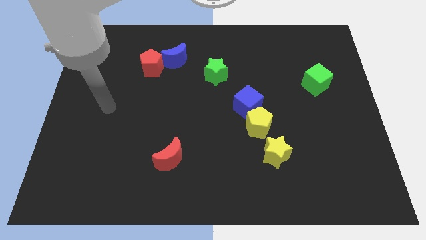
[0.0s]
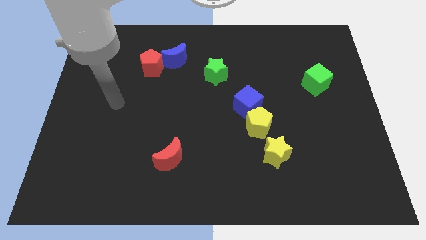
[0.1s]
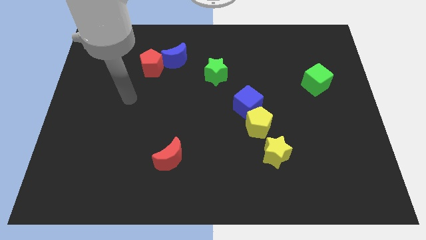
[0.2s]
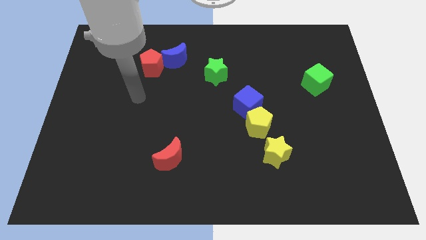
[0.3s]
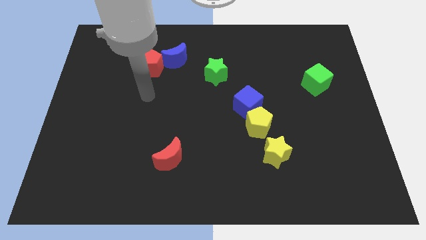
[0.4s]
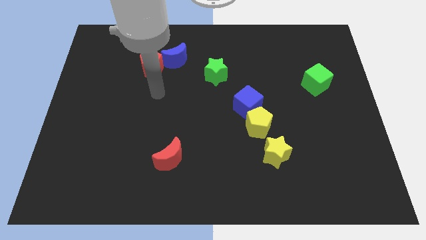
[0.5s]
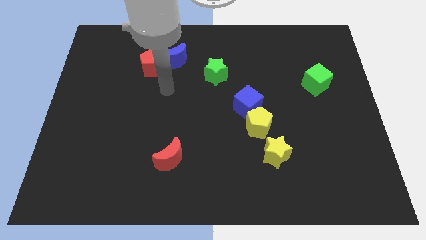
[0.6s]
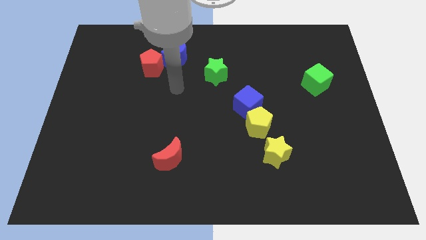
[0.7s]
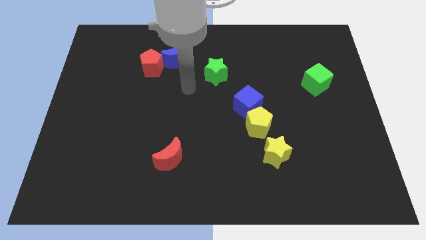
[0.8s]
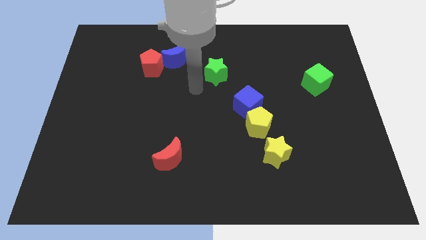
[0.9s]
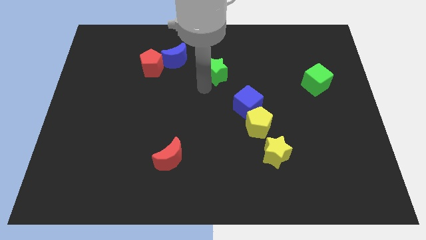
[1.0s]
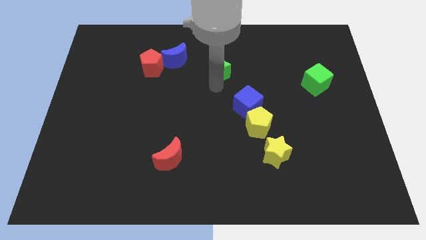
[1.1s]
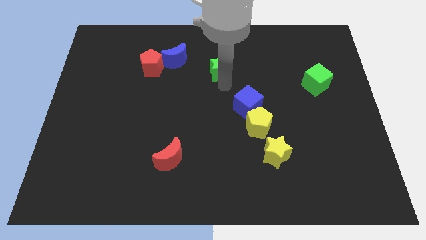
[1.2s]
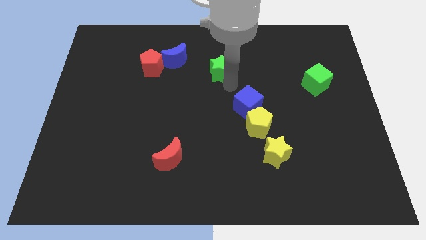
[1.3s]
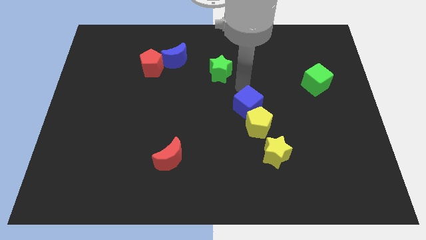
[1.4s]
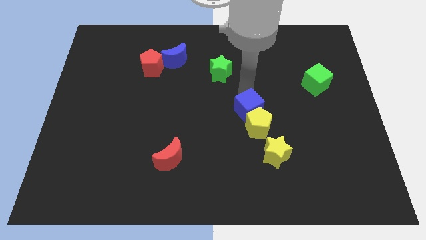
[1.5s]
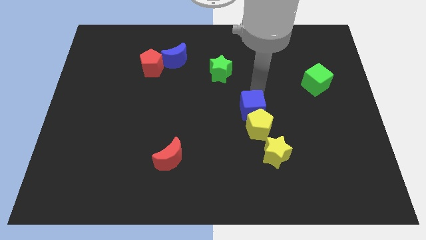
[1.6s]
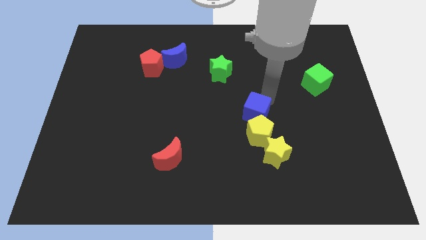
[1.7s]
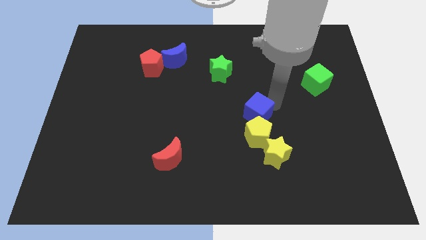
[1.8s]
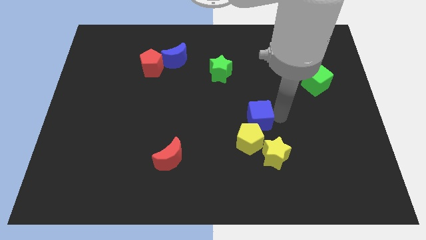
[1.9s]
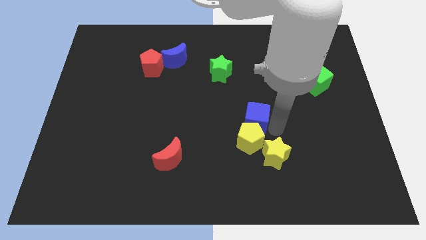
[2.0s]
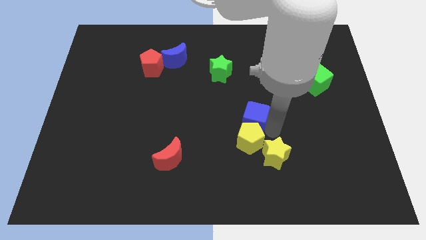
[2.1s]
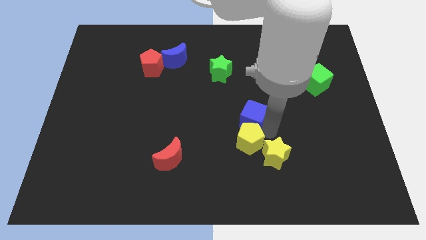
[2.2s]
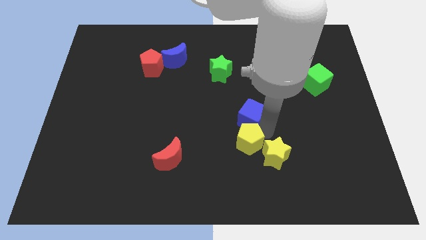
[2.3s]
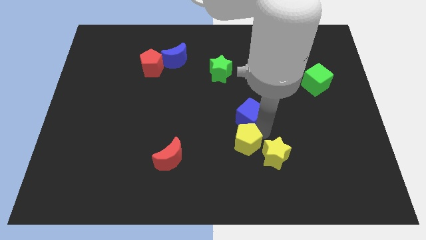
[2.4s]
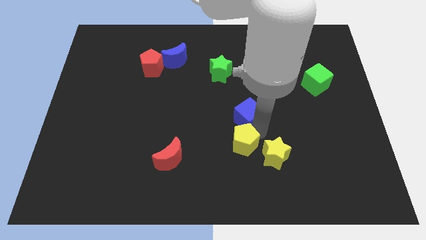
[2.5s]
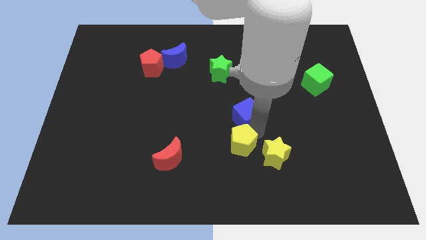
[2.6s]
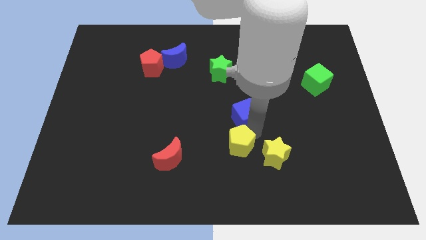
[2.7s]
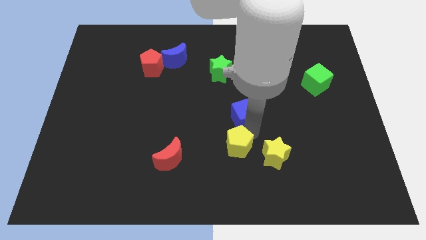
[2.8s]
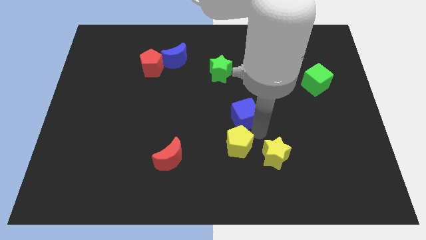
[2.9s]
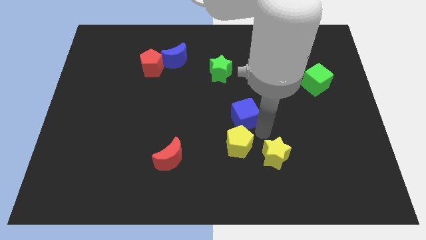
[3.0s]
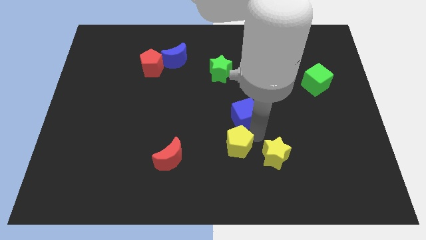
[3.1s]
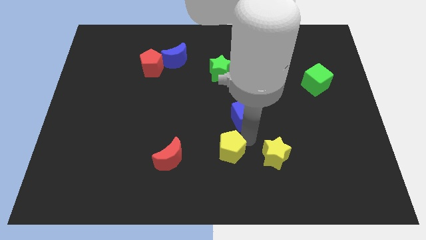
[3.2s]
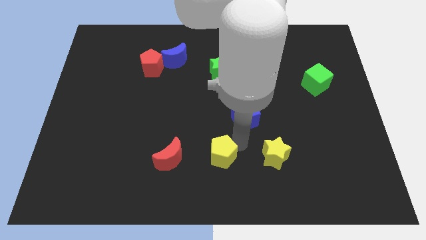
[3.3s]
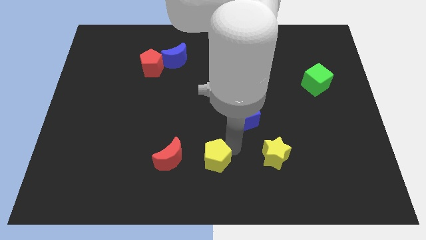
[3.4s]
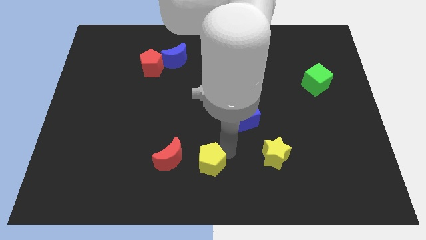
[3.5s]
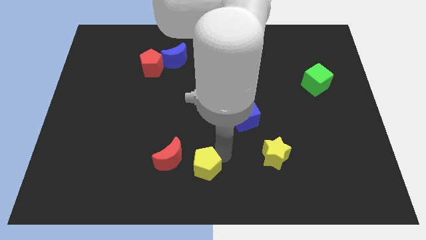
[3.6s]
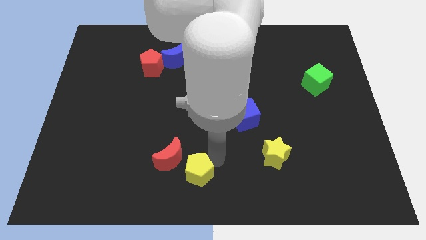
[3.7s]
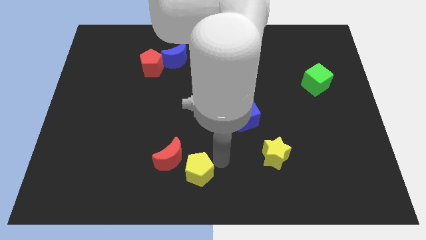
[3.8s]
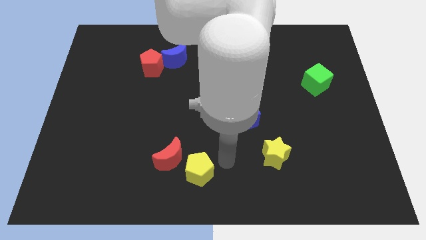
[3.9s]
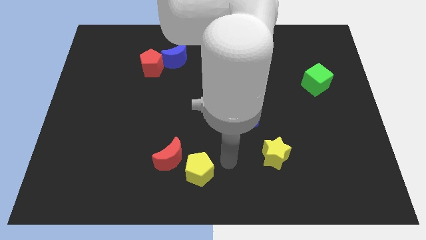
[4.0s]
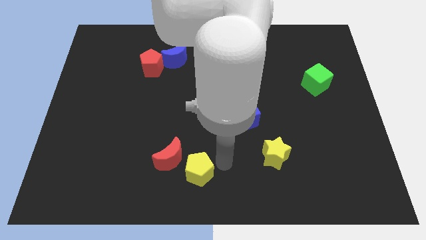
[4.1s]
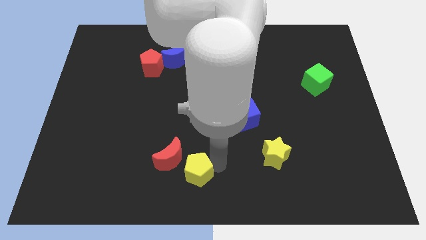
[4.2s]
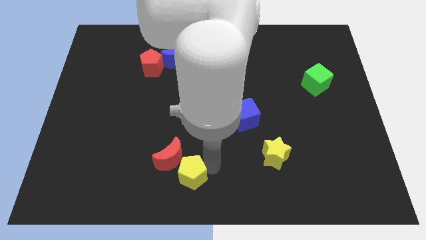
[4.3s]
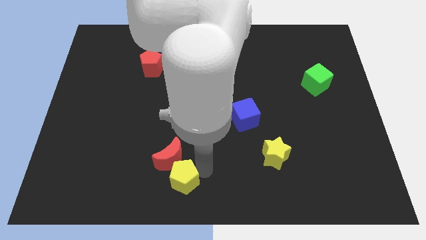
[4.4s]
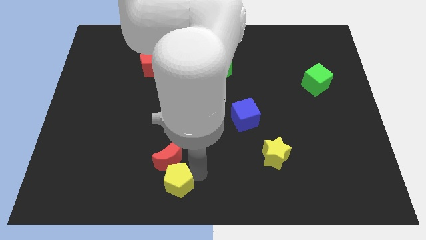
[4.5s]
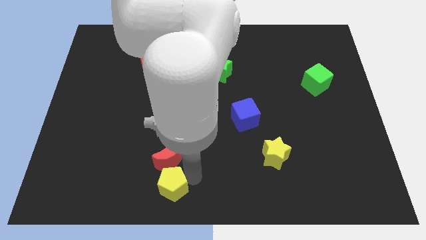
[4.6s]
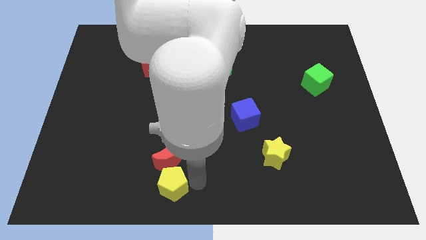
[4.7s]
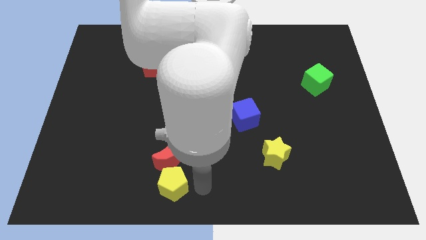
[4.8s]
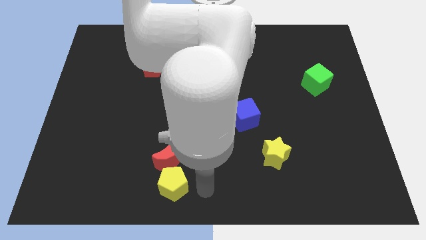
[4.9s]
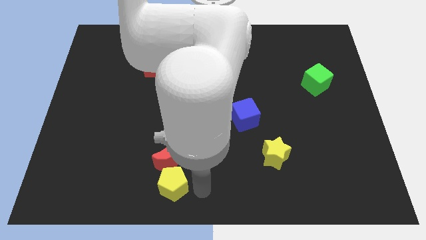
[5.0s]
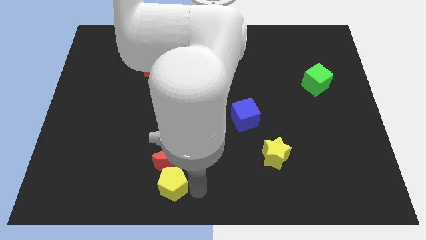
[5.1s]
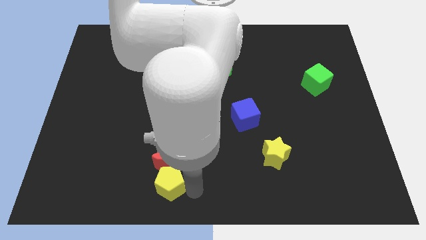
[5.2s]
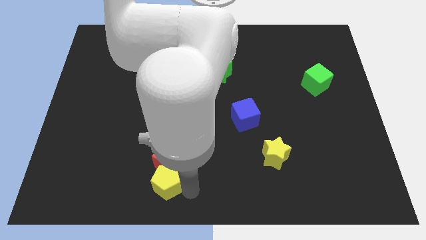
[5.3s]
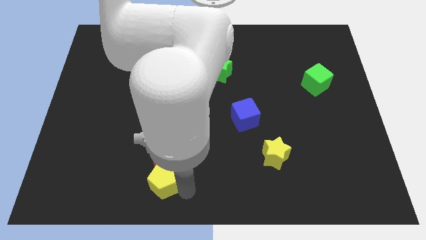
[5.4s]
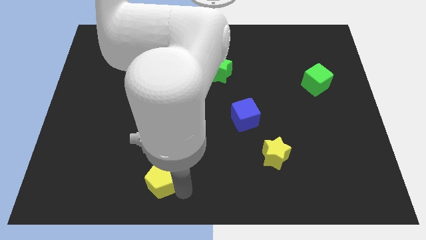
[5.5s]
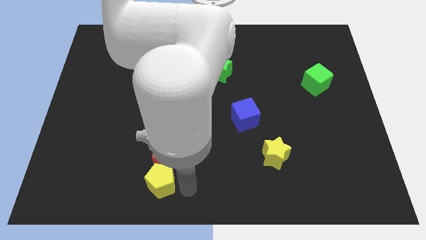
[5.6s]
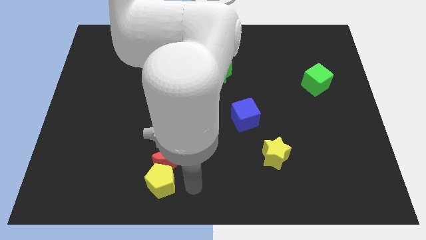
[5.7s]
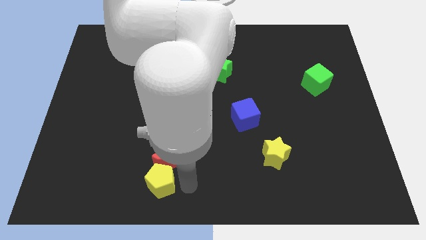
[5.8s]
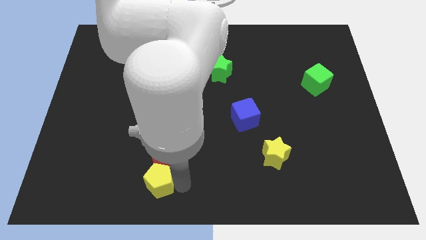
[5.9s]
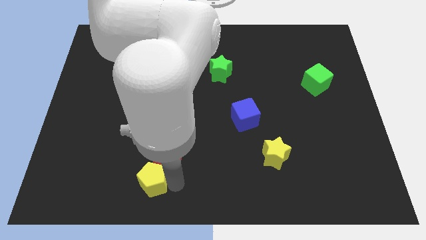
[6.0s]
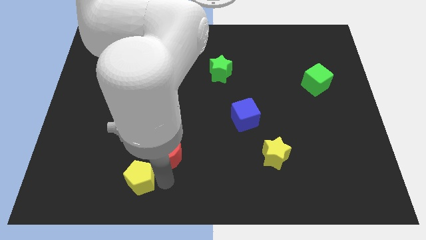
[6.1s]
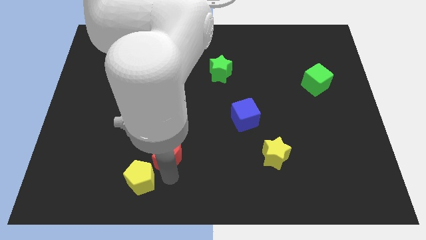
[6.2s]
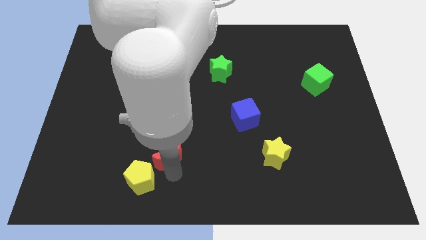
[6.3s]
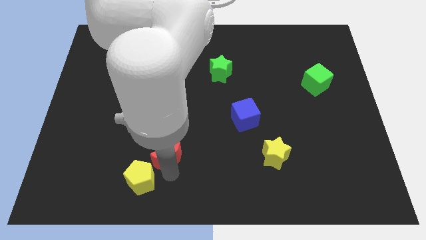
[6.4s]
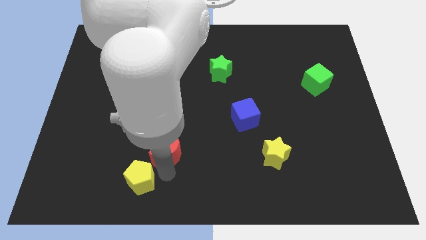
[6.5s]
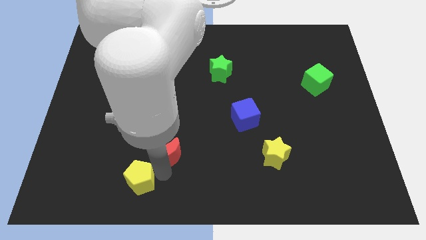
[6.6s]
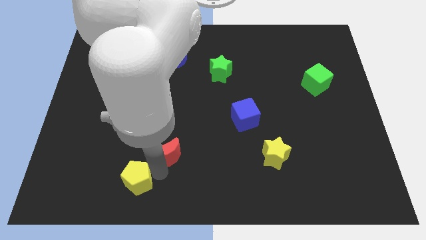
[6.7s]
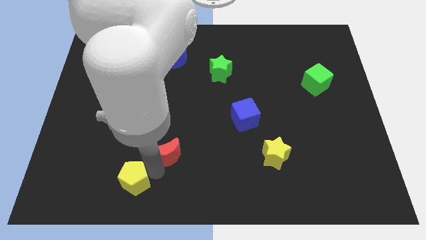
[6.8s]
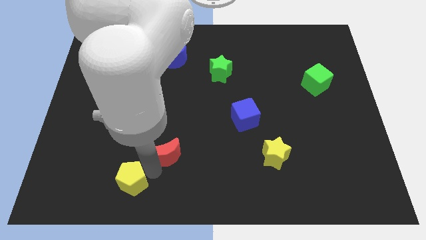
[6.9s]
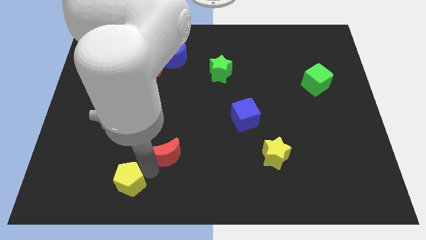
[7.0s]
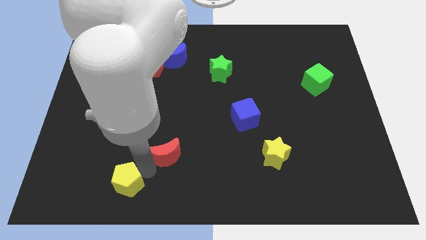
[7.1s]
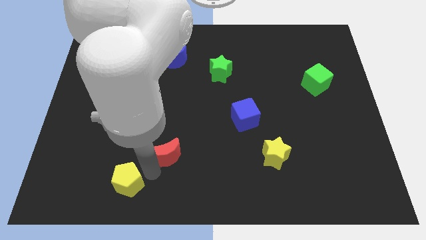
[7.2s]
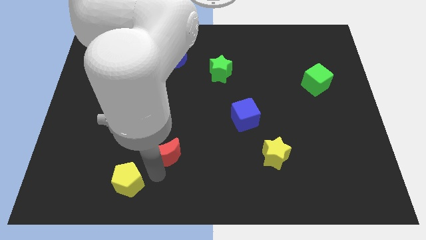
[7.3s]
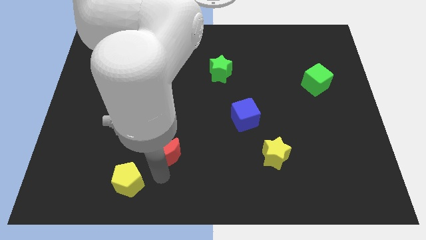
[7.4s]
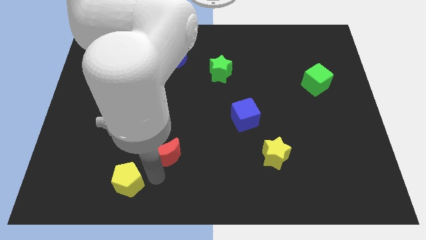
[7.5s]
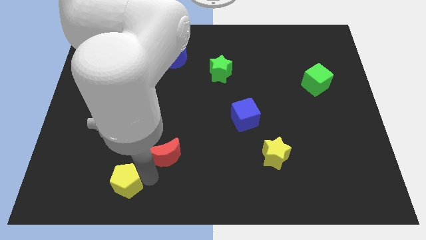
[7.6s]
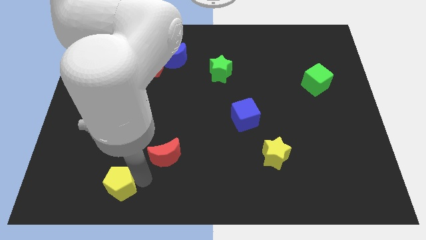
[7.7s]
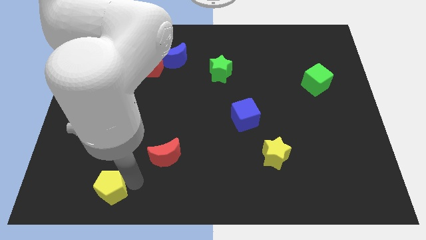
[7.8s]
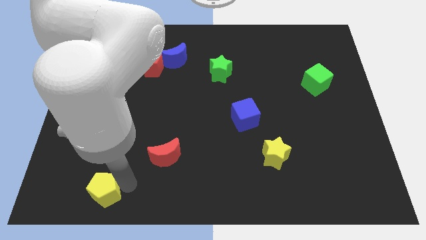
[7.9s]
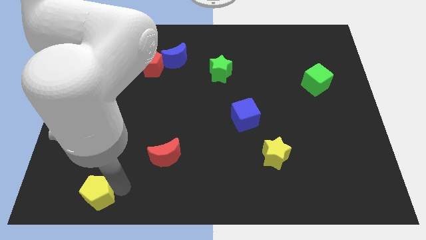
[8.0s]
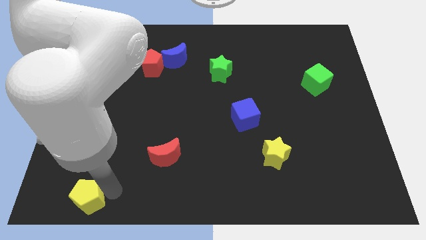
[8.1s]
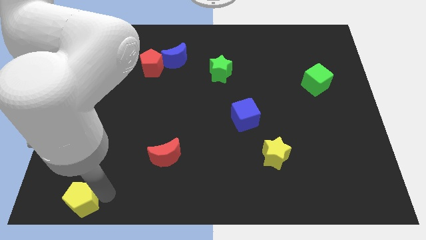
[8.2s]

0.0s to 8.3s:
slide the yellow pentagon to the lower left corner
